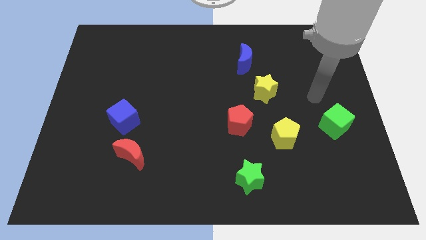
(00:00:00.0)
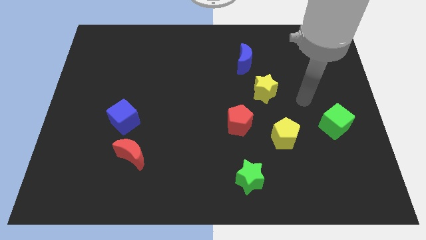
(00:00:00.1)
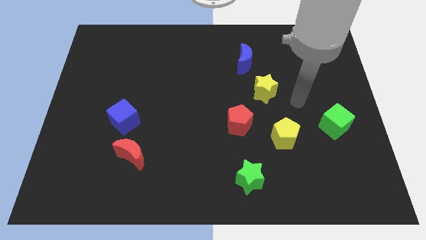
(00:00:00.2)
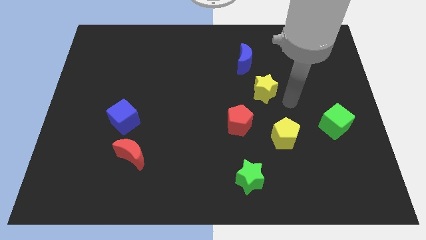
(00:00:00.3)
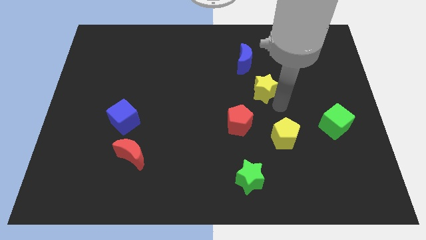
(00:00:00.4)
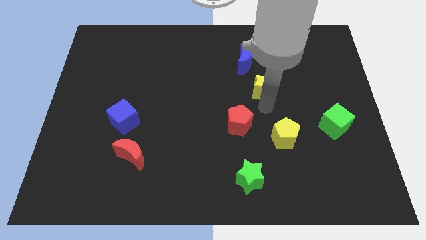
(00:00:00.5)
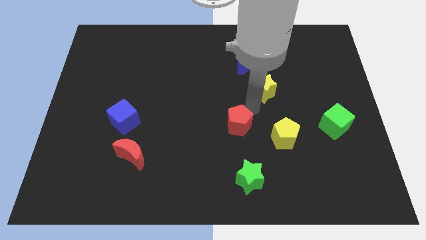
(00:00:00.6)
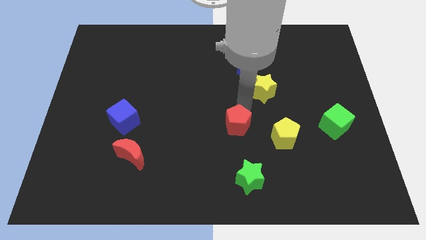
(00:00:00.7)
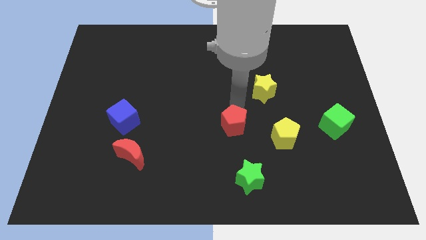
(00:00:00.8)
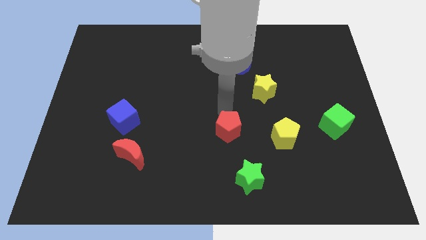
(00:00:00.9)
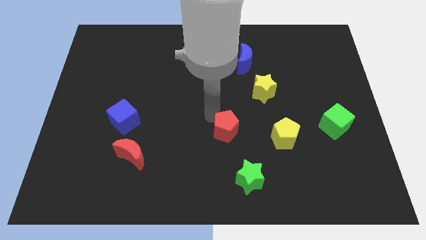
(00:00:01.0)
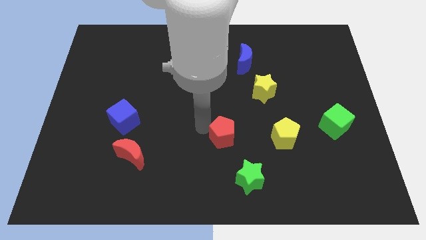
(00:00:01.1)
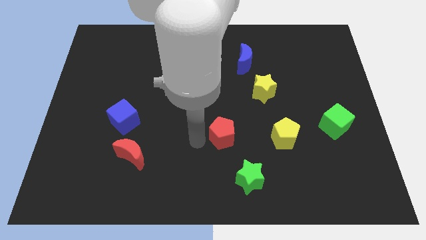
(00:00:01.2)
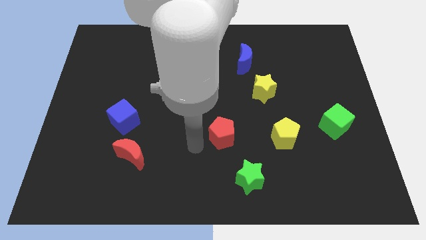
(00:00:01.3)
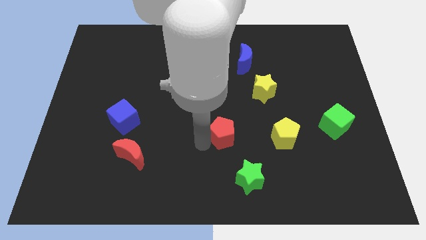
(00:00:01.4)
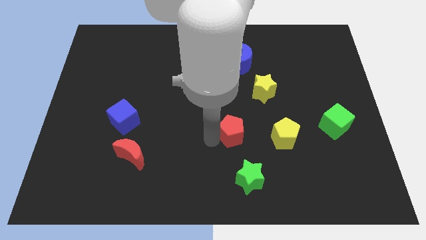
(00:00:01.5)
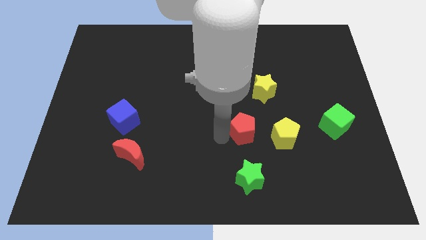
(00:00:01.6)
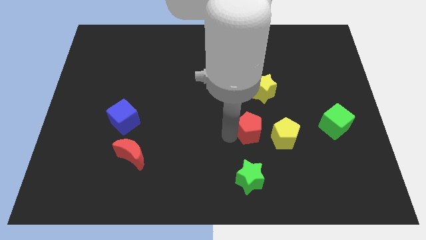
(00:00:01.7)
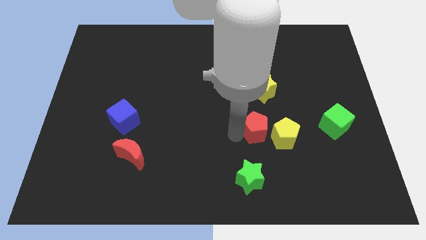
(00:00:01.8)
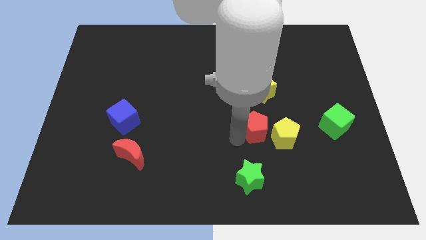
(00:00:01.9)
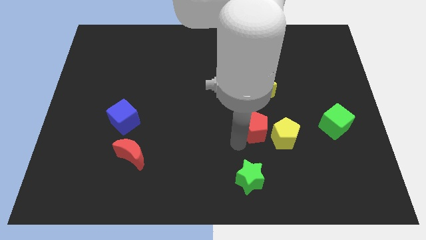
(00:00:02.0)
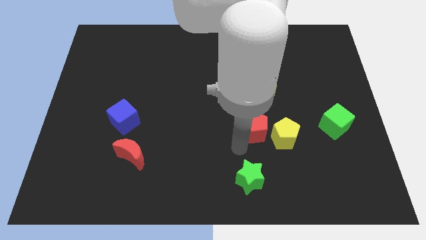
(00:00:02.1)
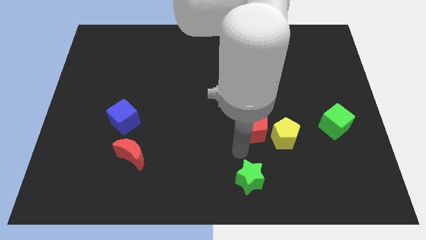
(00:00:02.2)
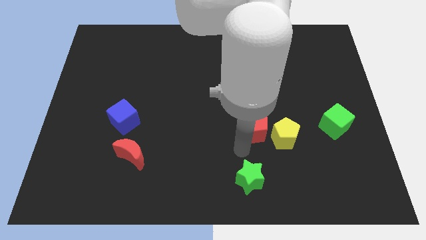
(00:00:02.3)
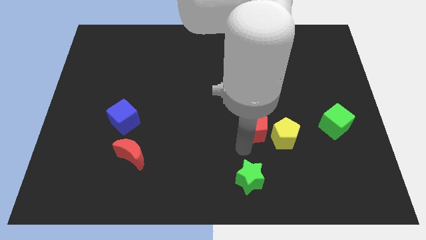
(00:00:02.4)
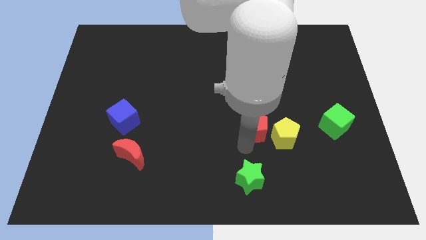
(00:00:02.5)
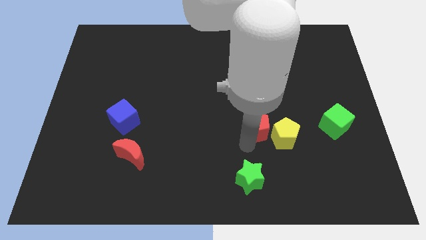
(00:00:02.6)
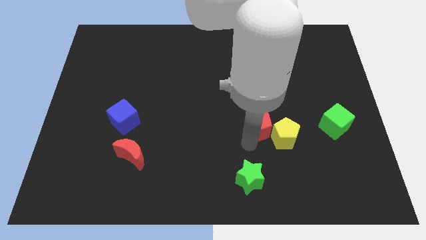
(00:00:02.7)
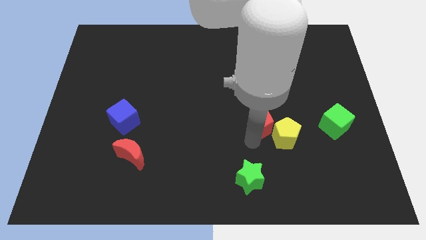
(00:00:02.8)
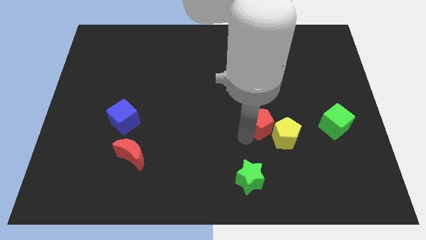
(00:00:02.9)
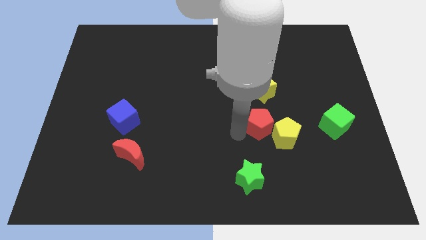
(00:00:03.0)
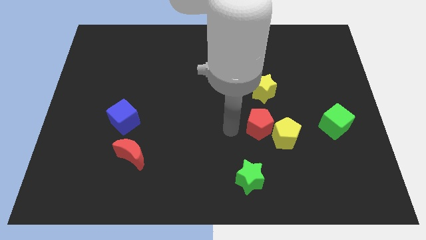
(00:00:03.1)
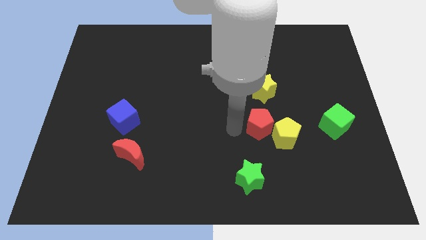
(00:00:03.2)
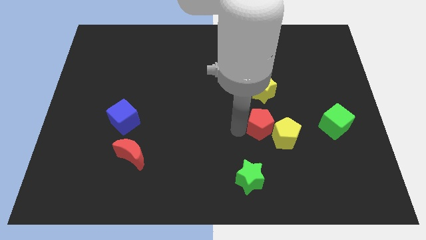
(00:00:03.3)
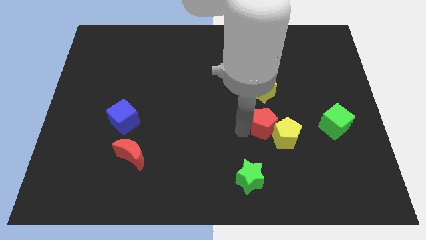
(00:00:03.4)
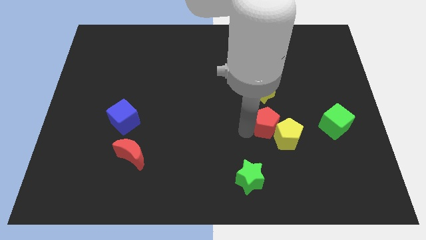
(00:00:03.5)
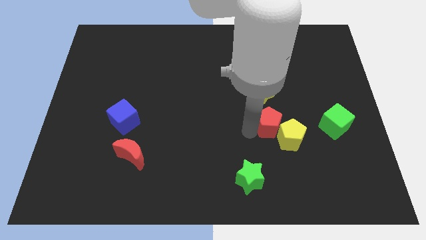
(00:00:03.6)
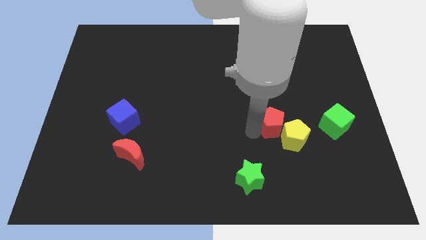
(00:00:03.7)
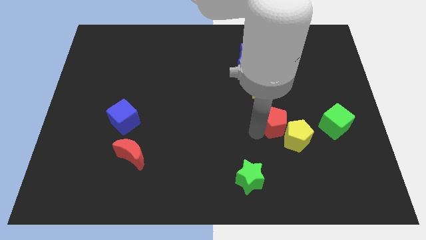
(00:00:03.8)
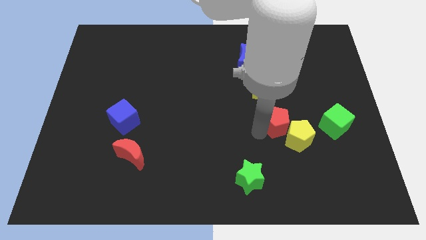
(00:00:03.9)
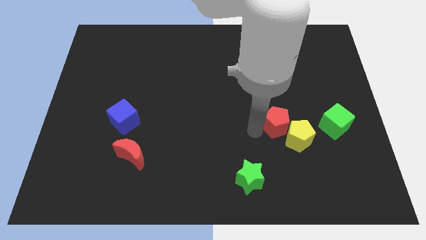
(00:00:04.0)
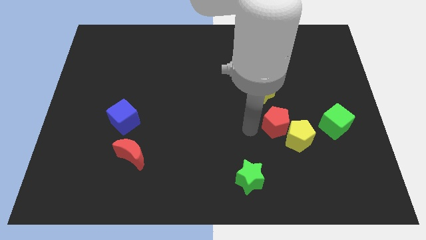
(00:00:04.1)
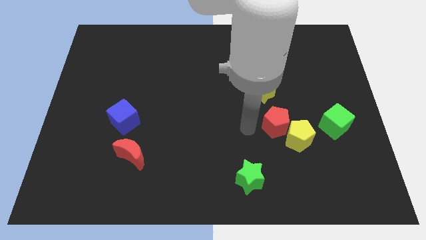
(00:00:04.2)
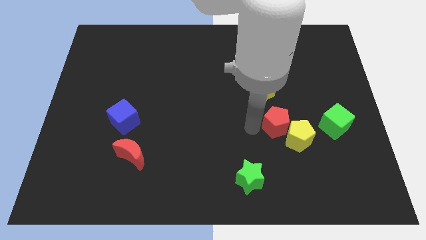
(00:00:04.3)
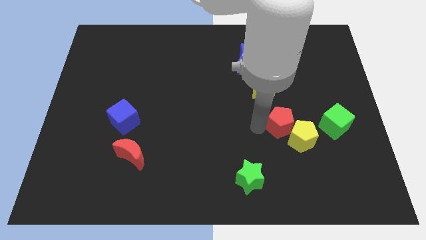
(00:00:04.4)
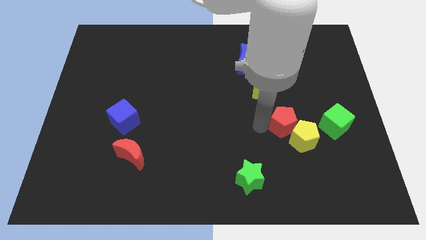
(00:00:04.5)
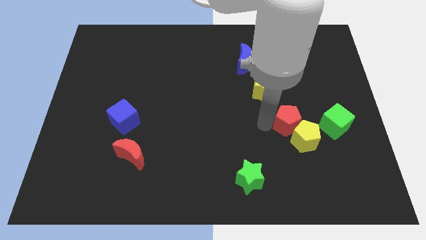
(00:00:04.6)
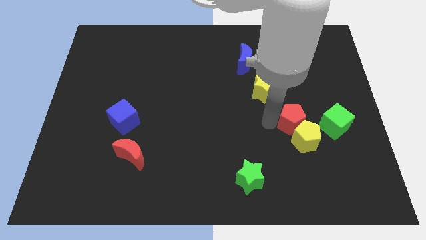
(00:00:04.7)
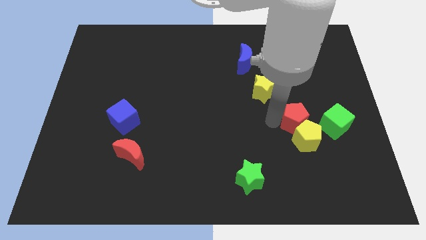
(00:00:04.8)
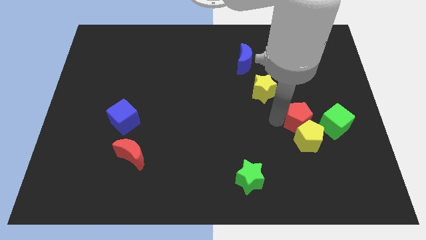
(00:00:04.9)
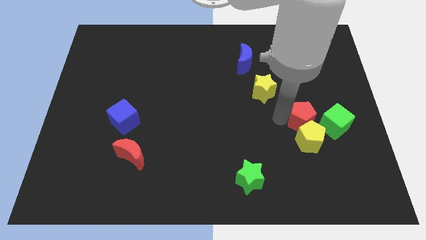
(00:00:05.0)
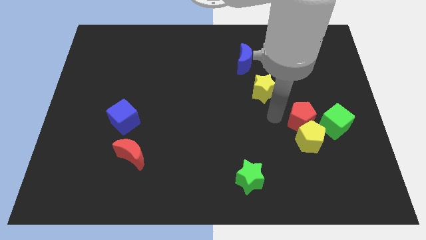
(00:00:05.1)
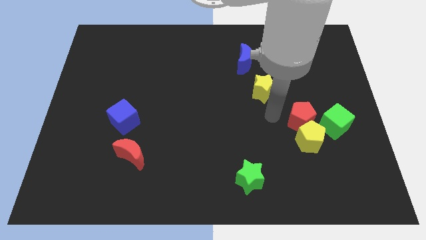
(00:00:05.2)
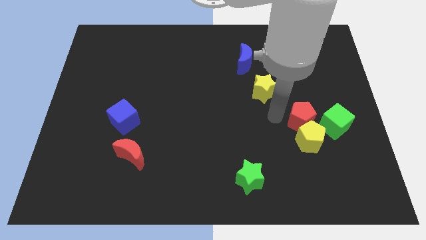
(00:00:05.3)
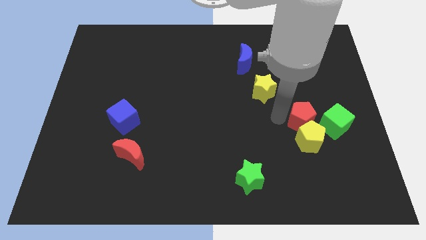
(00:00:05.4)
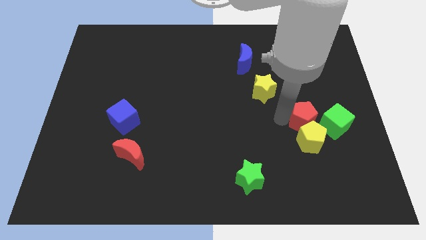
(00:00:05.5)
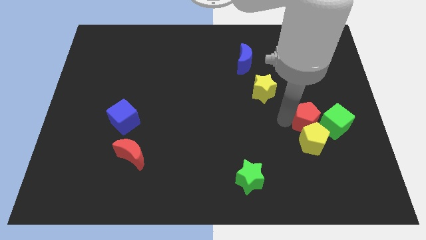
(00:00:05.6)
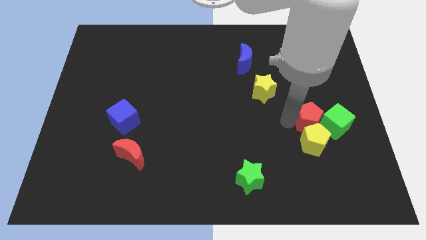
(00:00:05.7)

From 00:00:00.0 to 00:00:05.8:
slide the red pentagon towards the green cube

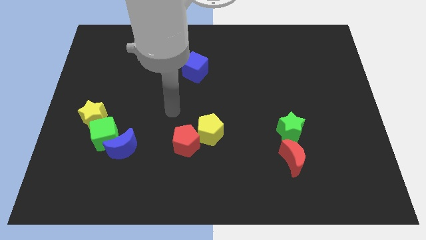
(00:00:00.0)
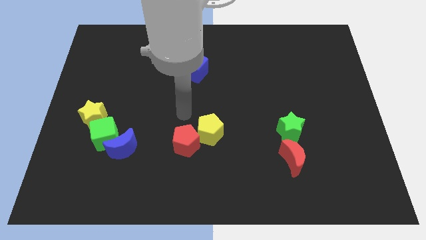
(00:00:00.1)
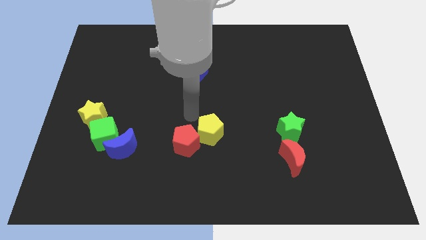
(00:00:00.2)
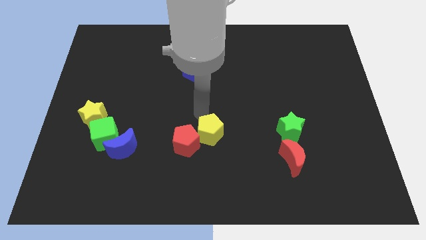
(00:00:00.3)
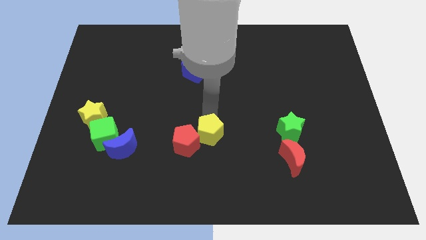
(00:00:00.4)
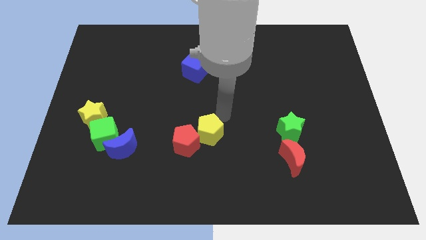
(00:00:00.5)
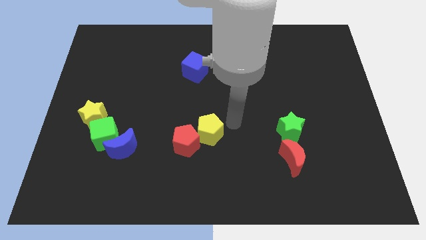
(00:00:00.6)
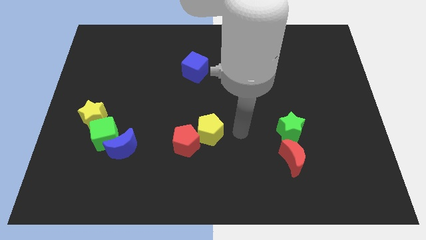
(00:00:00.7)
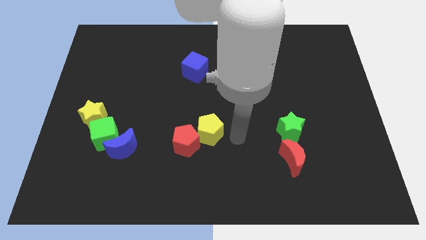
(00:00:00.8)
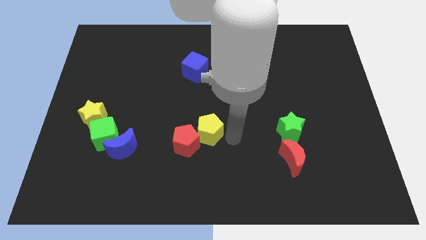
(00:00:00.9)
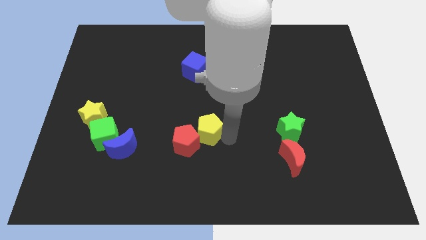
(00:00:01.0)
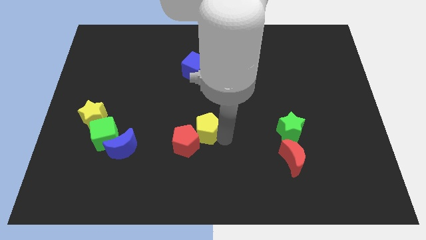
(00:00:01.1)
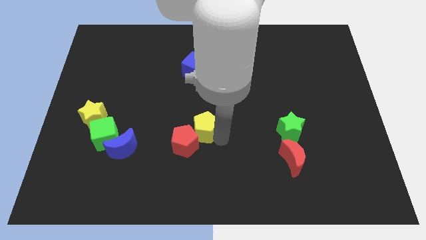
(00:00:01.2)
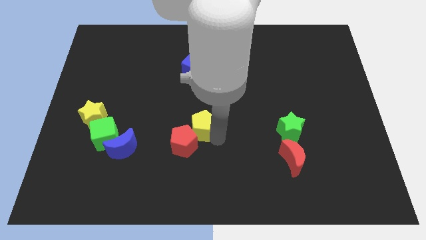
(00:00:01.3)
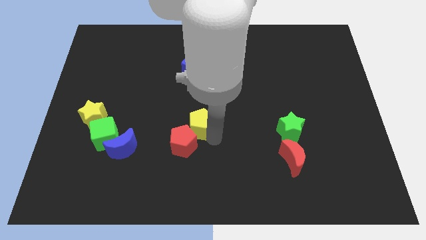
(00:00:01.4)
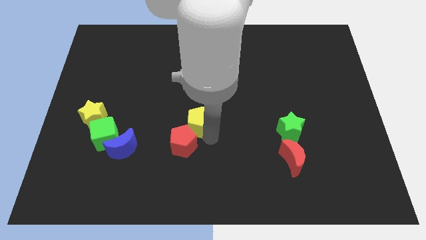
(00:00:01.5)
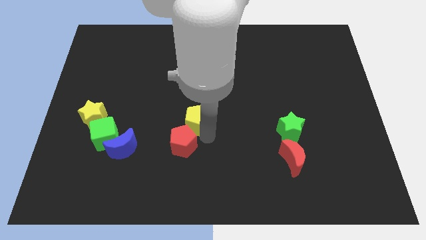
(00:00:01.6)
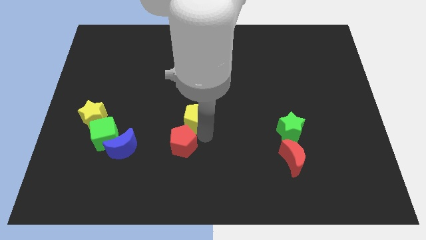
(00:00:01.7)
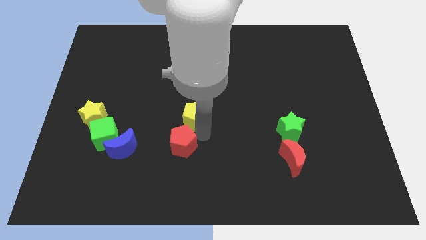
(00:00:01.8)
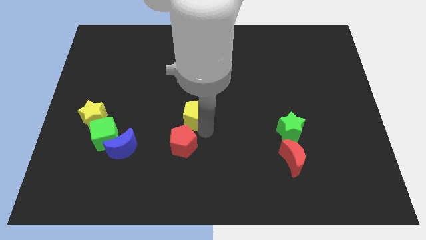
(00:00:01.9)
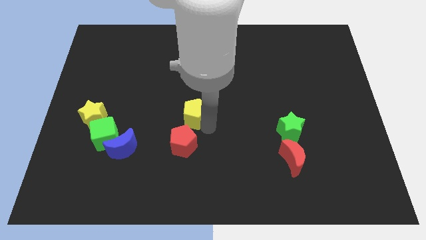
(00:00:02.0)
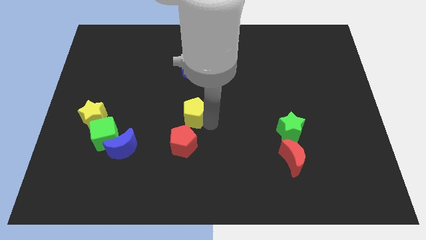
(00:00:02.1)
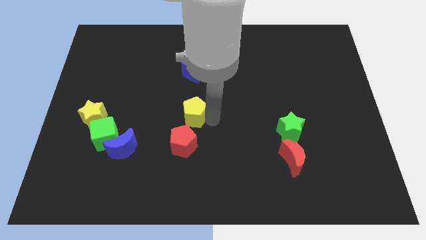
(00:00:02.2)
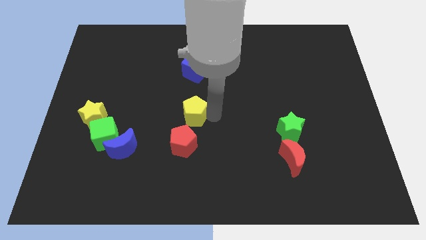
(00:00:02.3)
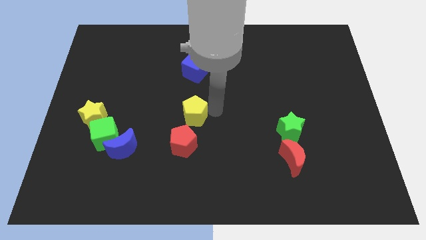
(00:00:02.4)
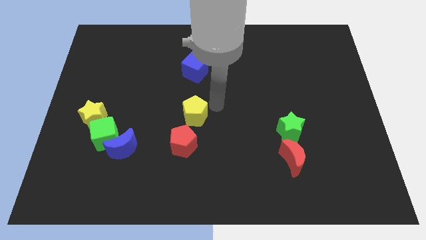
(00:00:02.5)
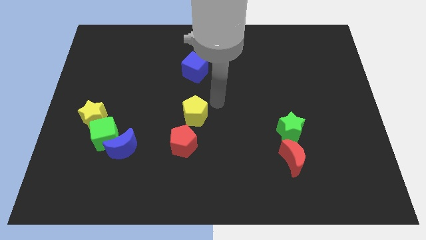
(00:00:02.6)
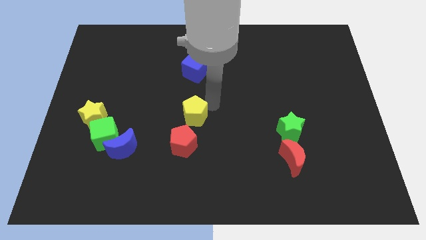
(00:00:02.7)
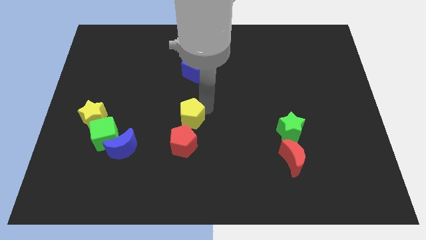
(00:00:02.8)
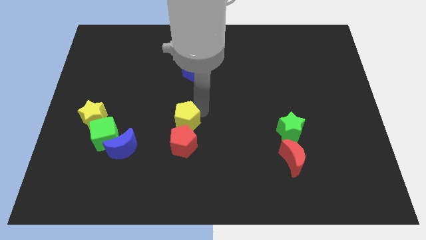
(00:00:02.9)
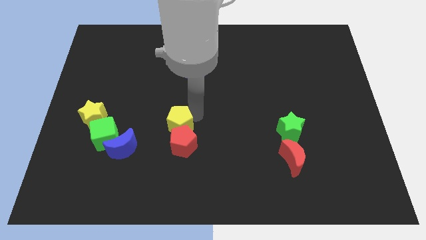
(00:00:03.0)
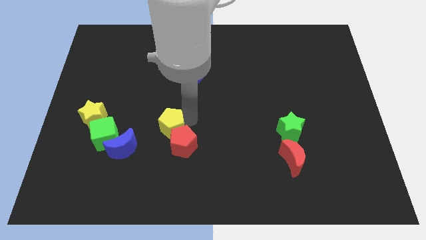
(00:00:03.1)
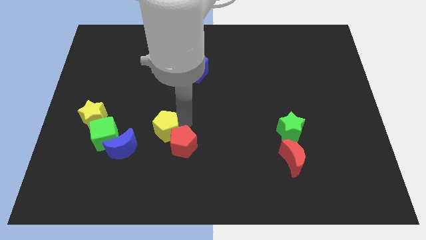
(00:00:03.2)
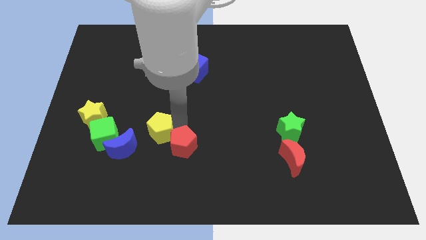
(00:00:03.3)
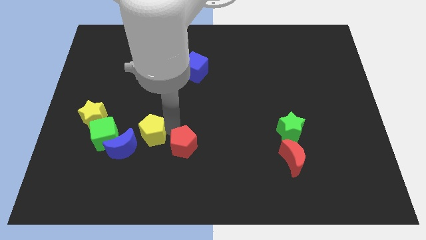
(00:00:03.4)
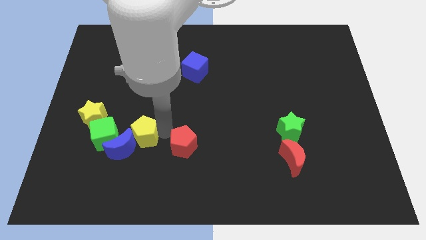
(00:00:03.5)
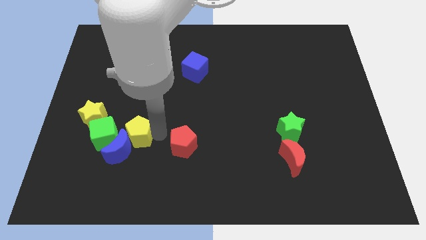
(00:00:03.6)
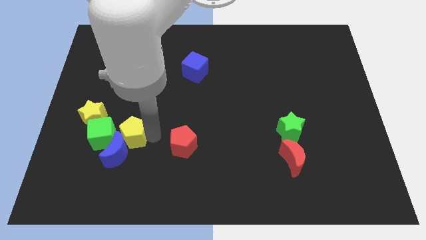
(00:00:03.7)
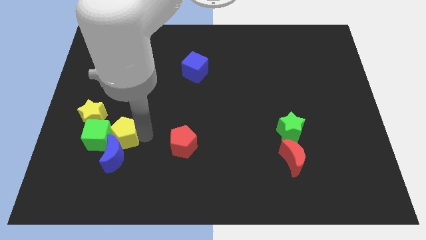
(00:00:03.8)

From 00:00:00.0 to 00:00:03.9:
slide the yellow pentagon towards the green cube
